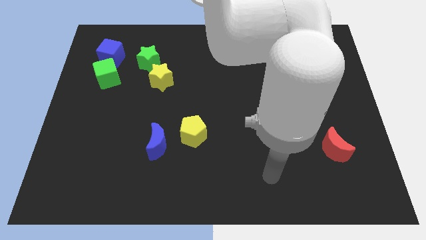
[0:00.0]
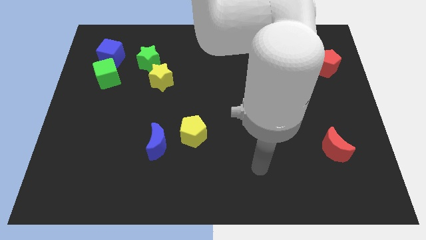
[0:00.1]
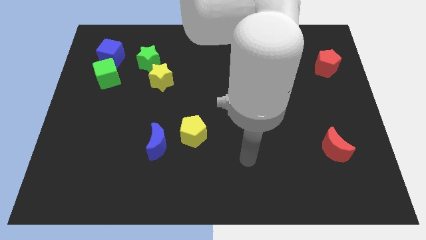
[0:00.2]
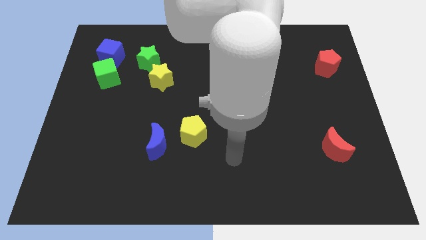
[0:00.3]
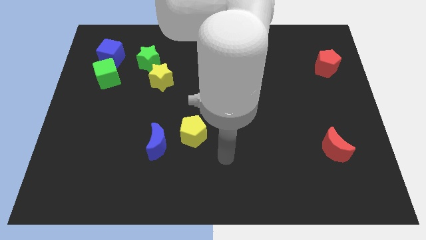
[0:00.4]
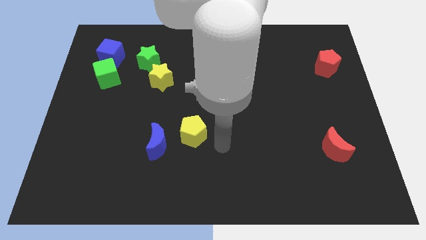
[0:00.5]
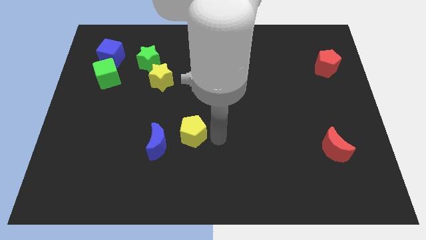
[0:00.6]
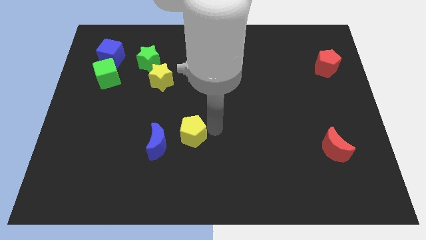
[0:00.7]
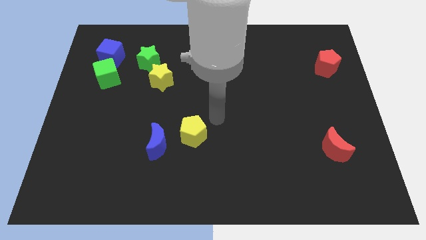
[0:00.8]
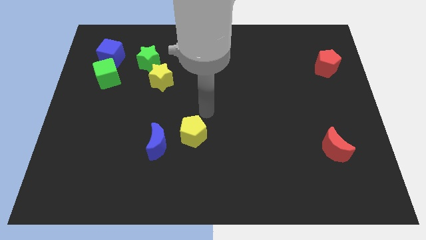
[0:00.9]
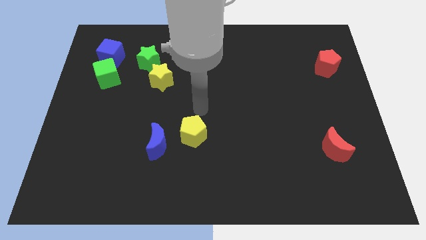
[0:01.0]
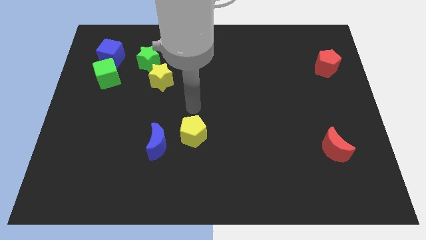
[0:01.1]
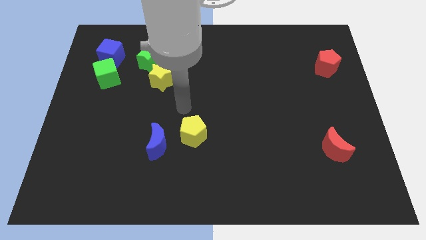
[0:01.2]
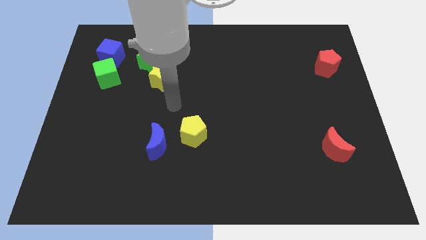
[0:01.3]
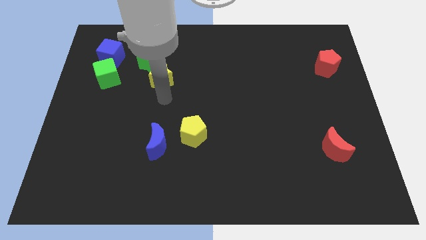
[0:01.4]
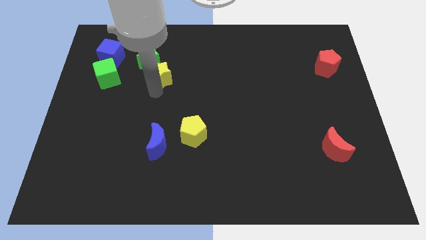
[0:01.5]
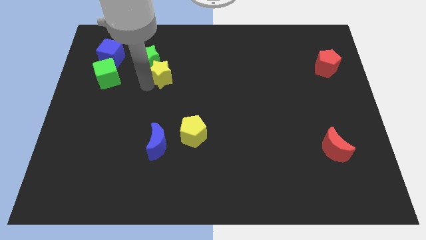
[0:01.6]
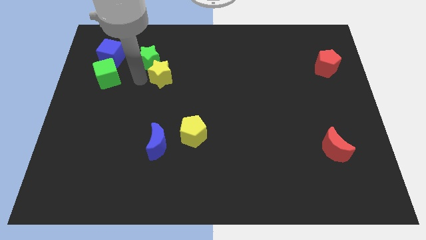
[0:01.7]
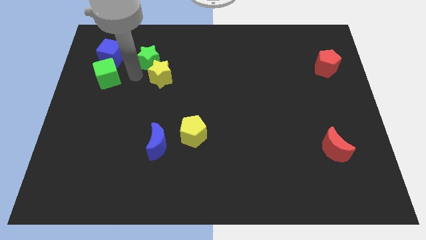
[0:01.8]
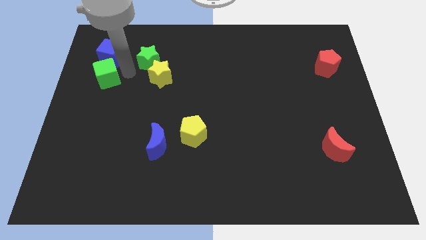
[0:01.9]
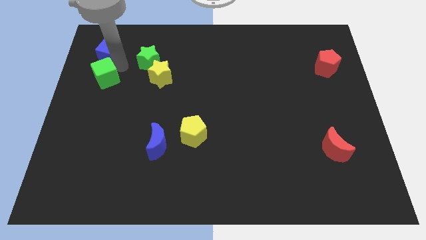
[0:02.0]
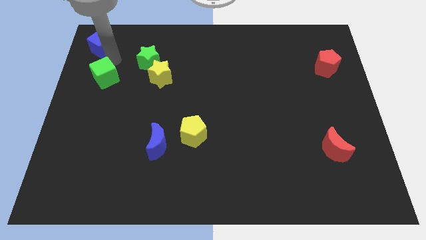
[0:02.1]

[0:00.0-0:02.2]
separate the green cube from the blue cube

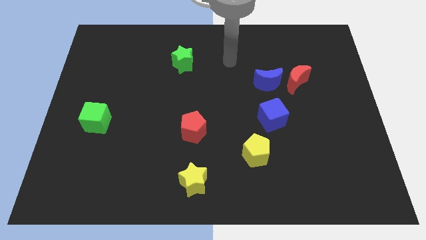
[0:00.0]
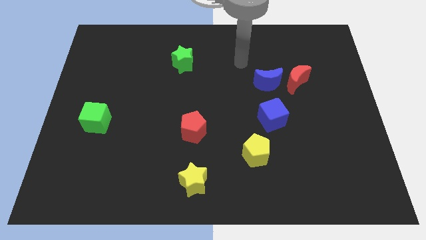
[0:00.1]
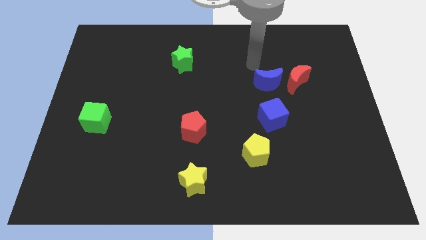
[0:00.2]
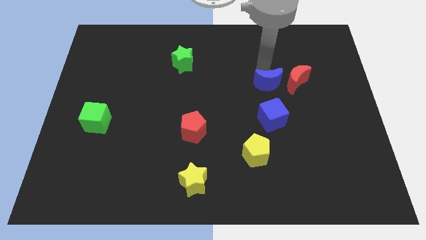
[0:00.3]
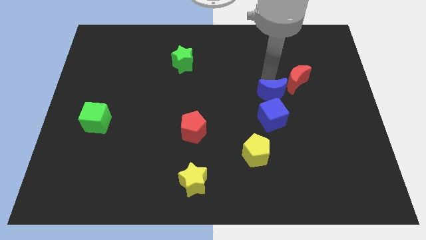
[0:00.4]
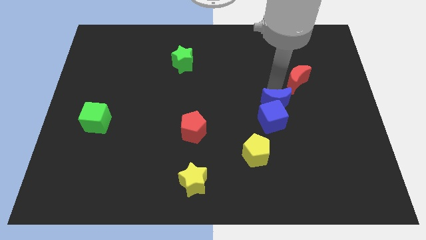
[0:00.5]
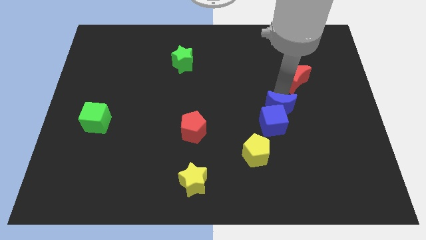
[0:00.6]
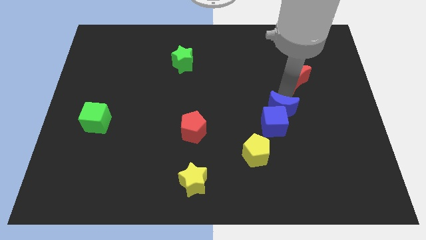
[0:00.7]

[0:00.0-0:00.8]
pull the red moon apart from the blue moon

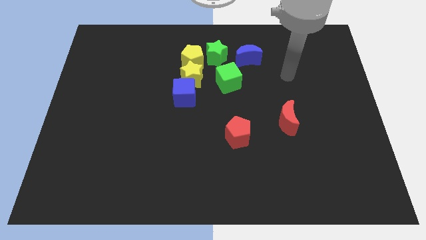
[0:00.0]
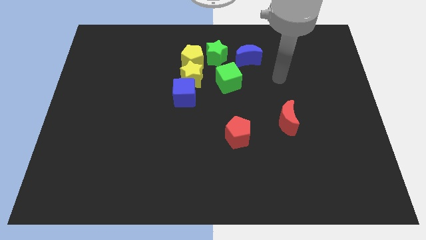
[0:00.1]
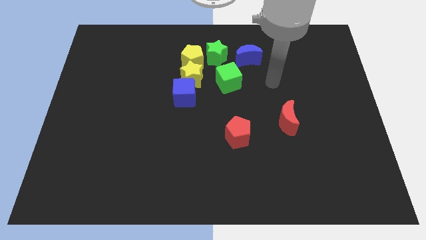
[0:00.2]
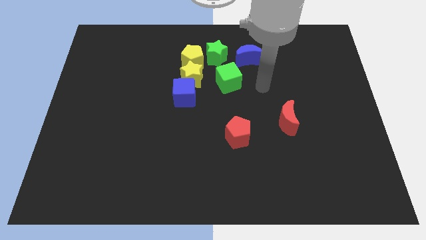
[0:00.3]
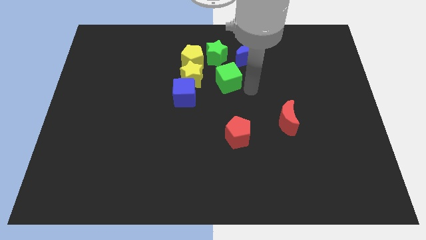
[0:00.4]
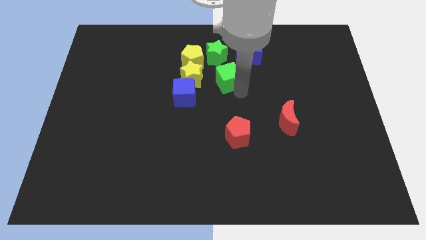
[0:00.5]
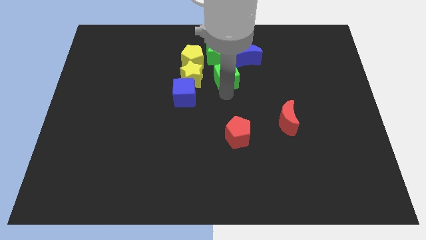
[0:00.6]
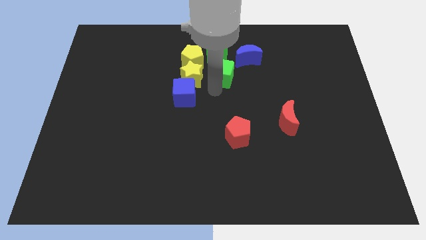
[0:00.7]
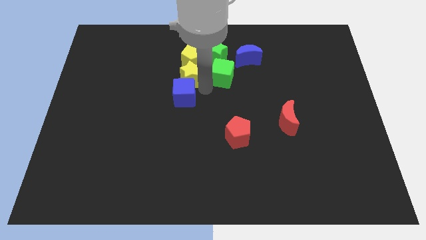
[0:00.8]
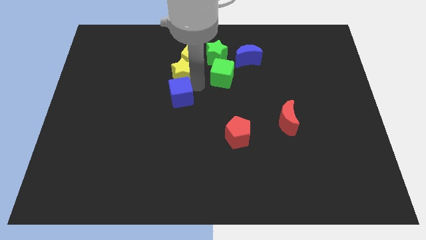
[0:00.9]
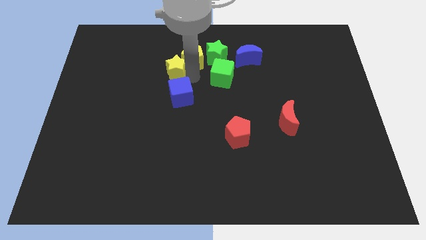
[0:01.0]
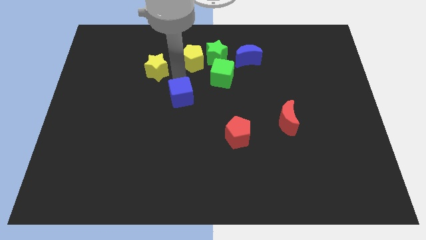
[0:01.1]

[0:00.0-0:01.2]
pull the blue cube apart from the yellow star

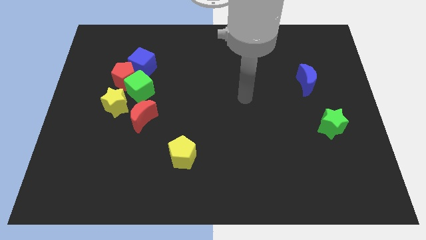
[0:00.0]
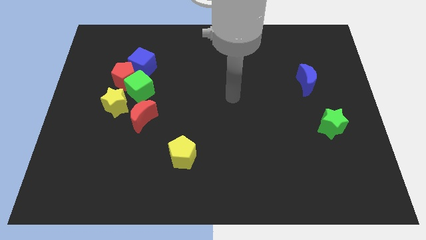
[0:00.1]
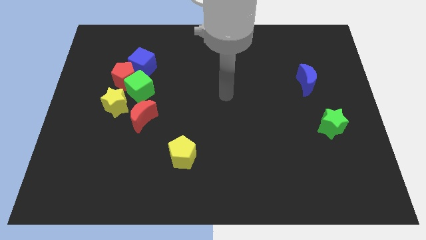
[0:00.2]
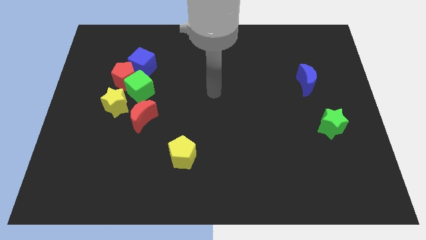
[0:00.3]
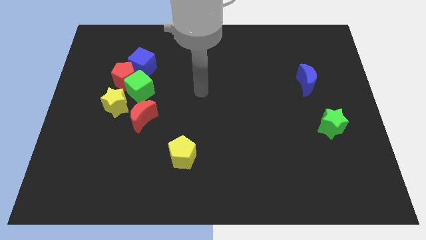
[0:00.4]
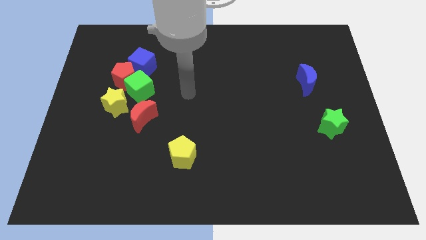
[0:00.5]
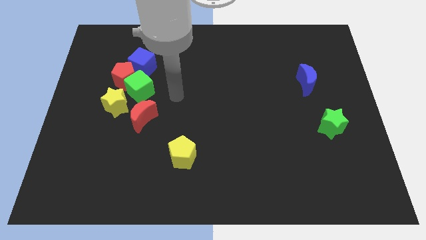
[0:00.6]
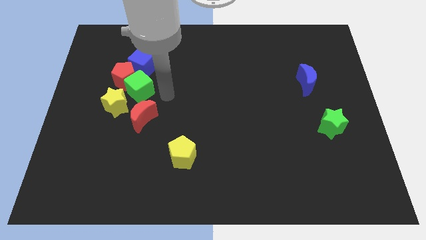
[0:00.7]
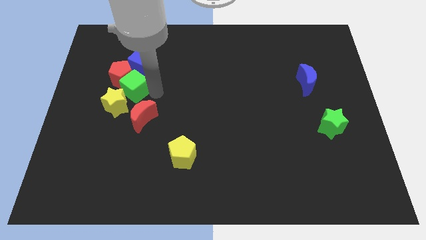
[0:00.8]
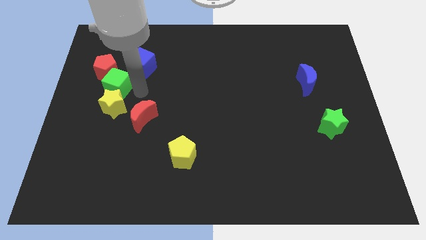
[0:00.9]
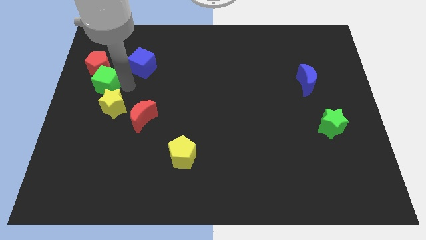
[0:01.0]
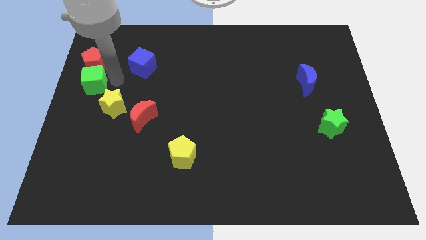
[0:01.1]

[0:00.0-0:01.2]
move the red pentagon away from the green cube, blue cube, and yellow star

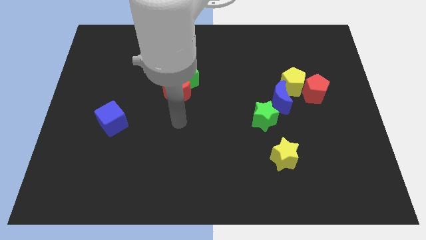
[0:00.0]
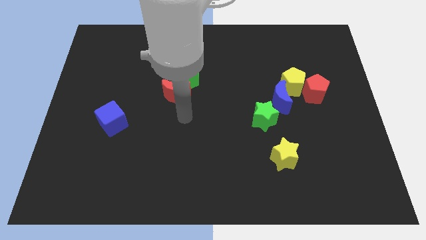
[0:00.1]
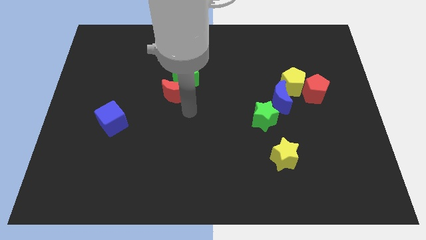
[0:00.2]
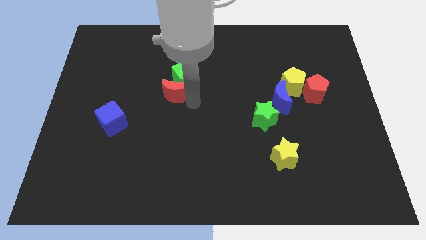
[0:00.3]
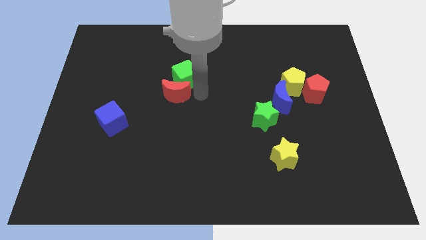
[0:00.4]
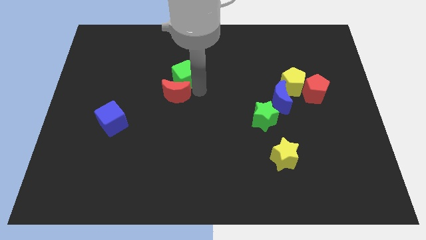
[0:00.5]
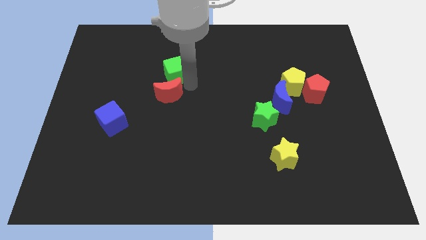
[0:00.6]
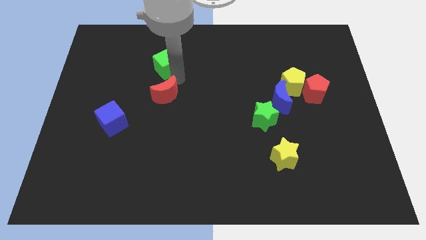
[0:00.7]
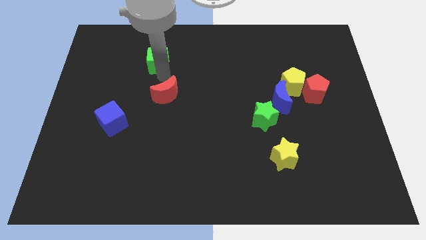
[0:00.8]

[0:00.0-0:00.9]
separate the red moon from the green cube

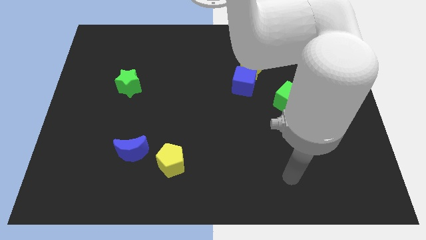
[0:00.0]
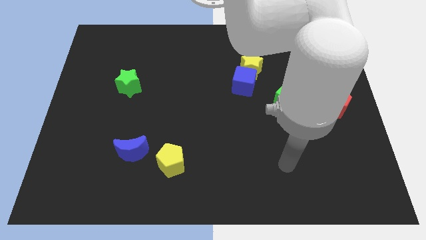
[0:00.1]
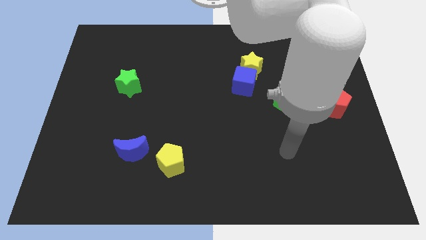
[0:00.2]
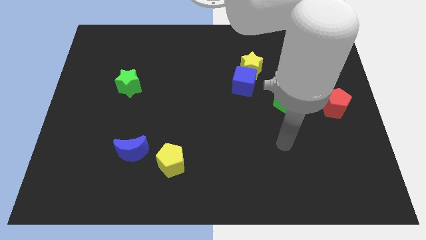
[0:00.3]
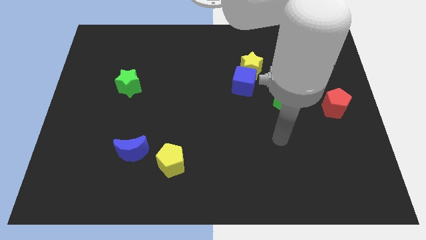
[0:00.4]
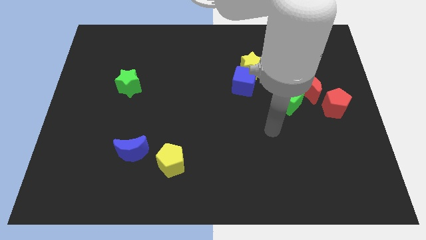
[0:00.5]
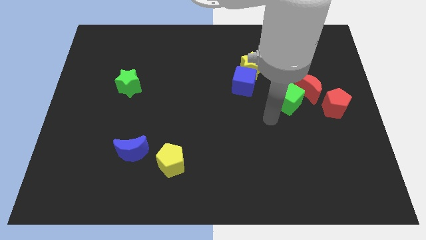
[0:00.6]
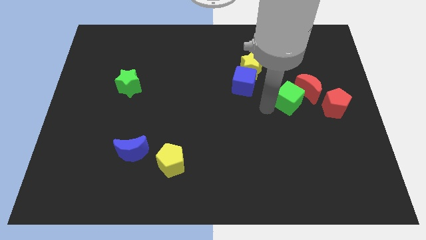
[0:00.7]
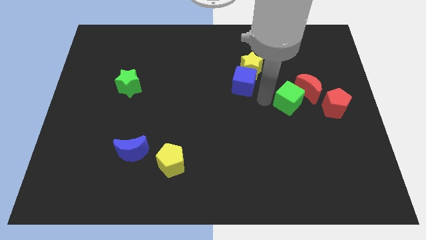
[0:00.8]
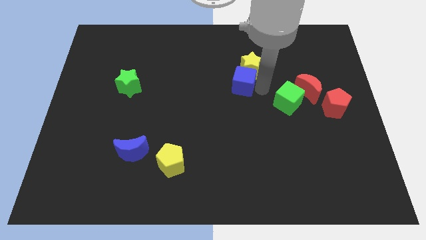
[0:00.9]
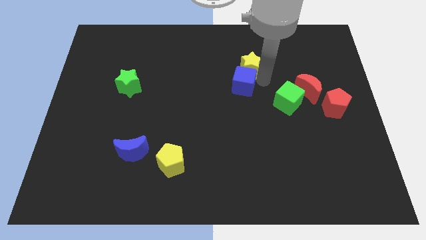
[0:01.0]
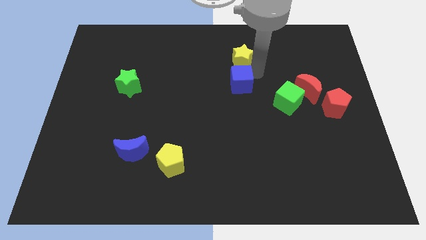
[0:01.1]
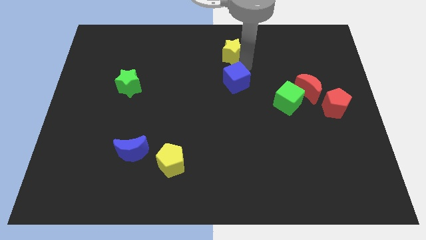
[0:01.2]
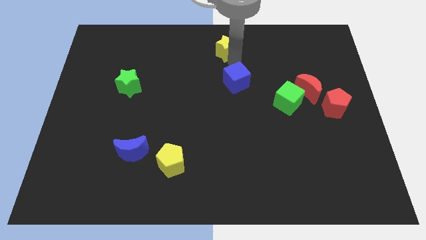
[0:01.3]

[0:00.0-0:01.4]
move the blue cube away from the yellow star

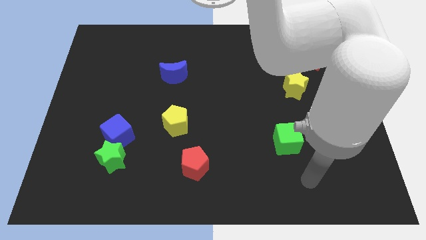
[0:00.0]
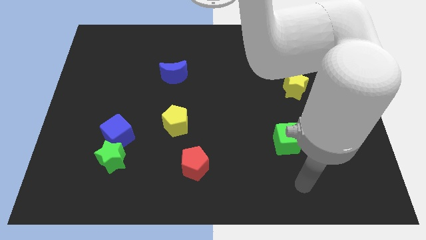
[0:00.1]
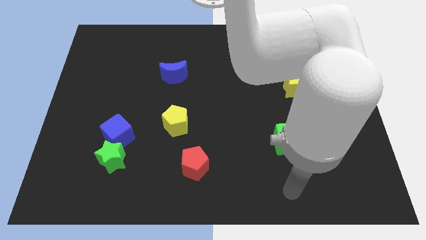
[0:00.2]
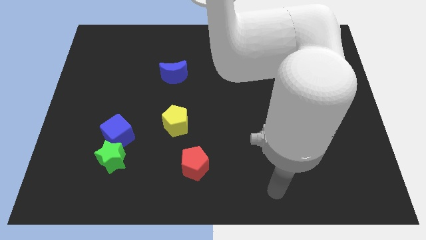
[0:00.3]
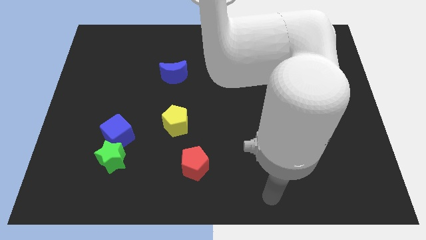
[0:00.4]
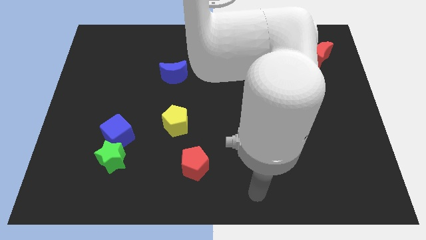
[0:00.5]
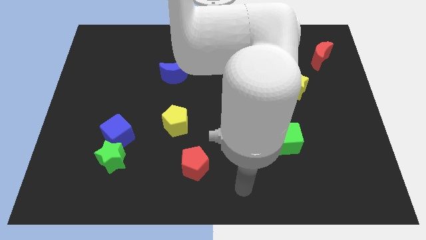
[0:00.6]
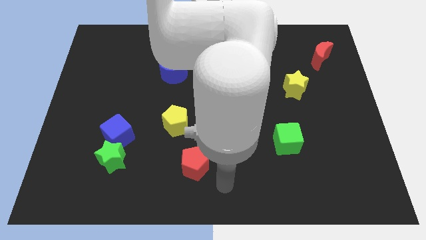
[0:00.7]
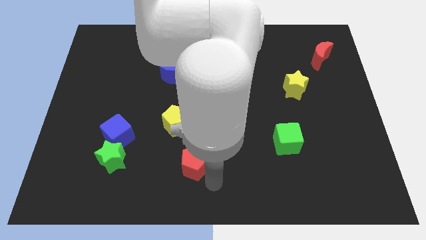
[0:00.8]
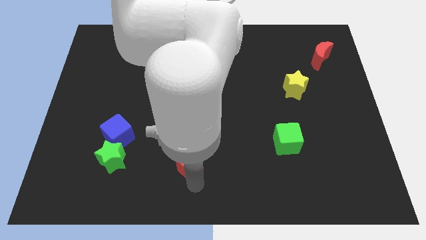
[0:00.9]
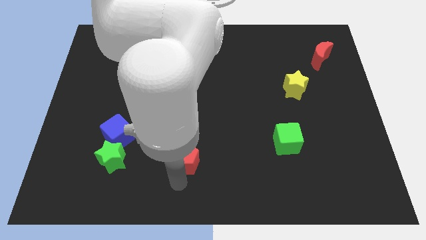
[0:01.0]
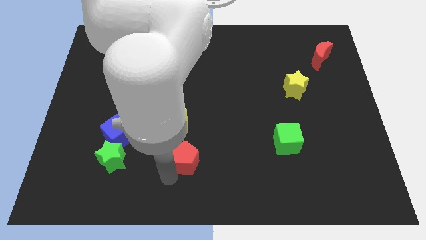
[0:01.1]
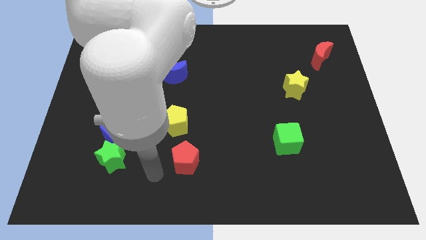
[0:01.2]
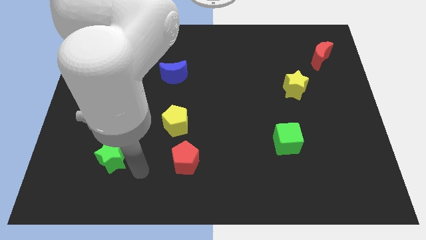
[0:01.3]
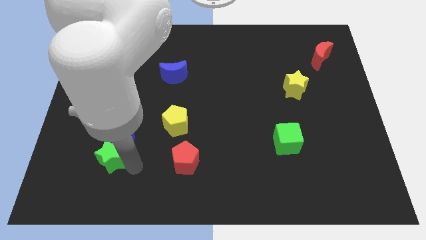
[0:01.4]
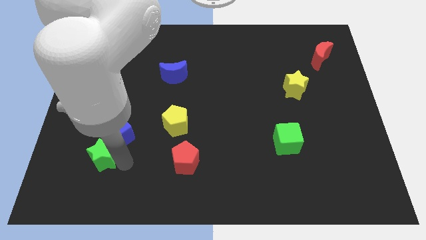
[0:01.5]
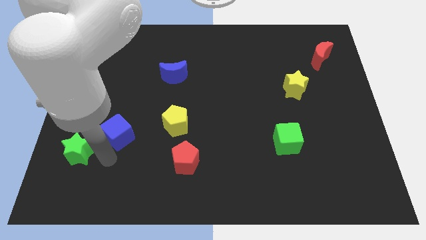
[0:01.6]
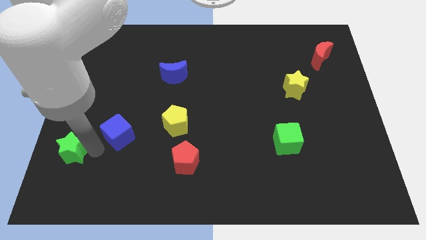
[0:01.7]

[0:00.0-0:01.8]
separate the blue cube from the green star
